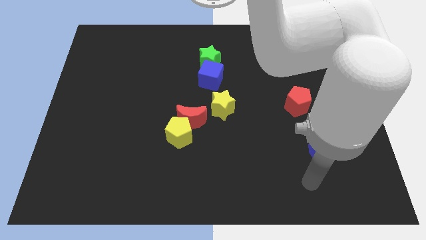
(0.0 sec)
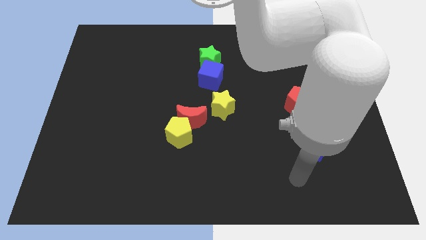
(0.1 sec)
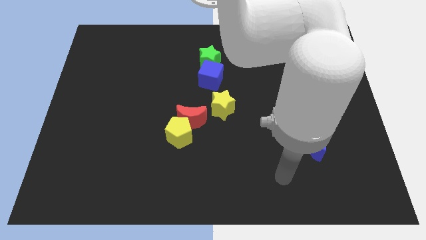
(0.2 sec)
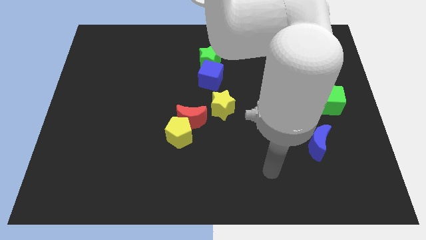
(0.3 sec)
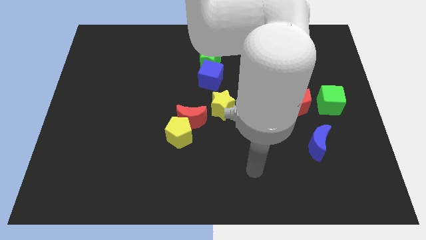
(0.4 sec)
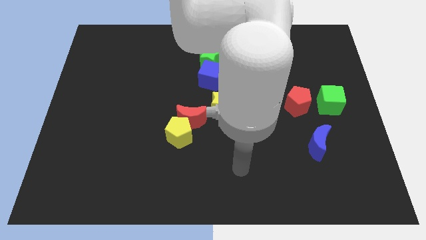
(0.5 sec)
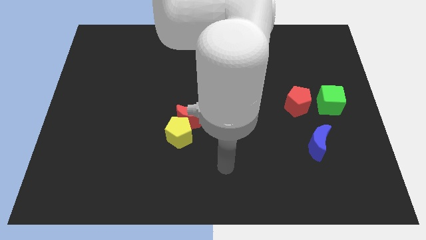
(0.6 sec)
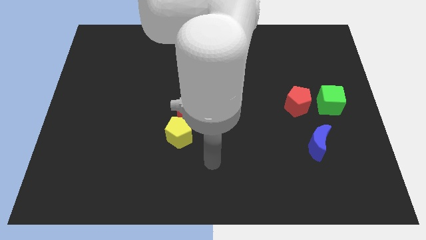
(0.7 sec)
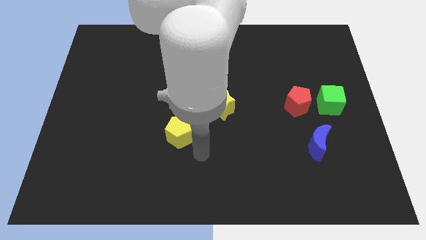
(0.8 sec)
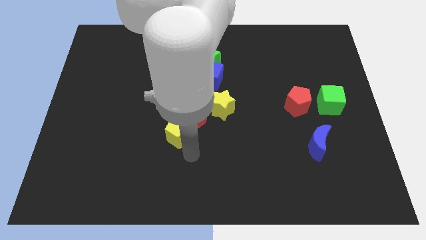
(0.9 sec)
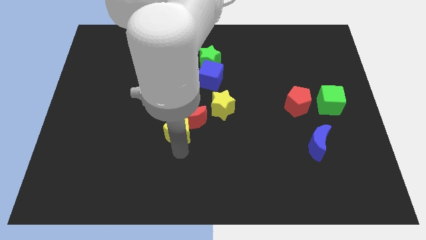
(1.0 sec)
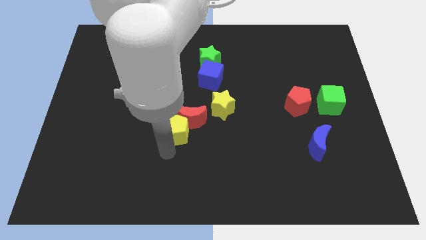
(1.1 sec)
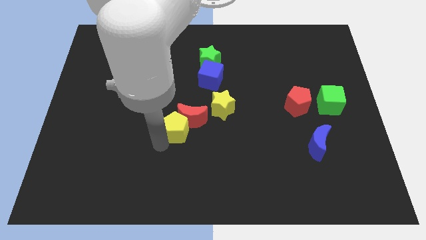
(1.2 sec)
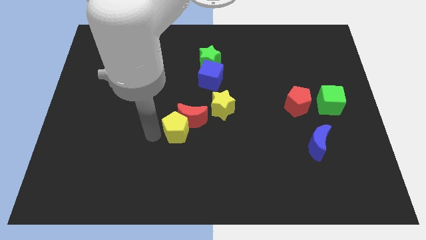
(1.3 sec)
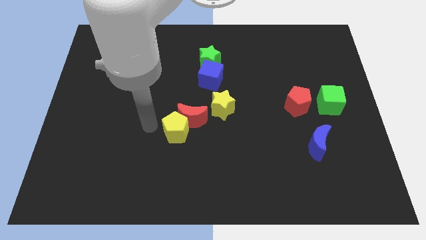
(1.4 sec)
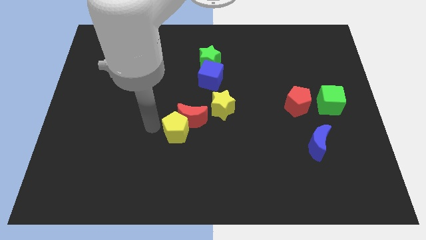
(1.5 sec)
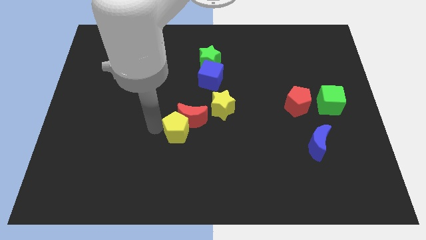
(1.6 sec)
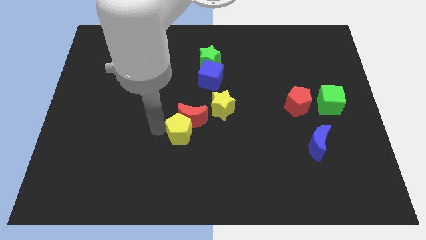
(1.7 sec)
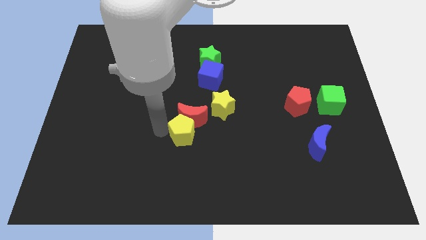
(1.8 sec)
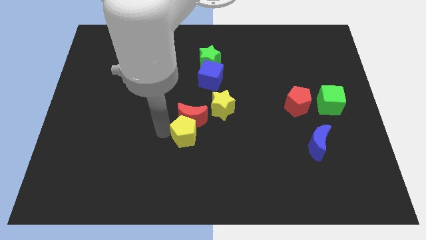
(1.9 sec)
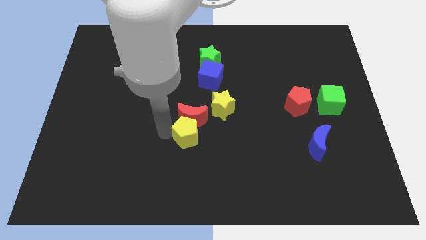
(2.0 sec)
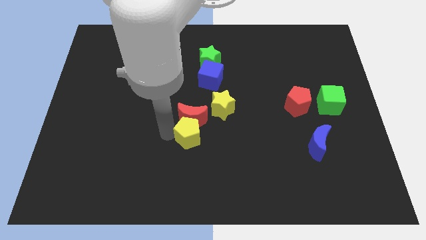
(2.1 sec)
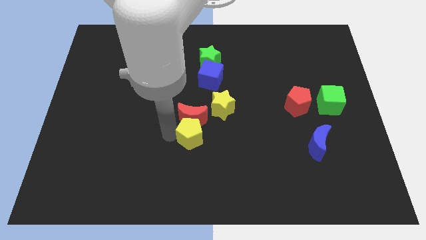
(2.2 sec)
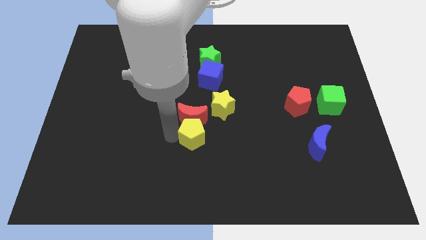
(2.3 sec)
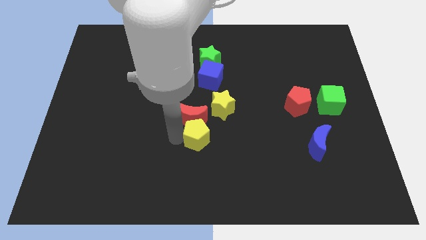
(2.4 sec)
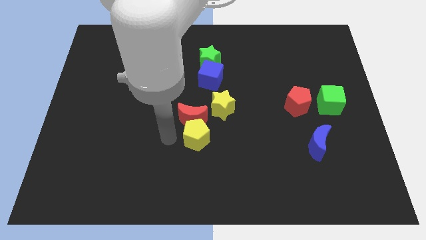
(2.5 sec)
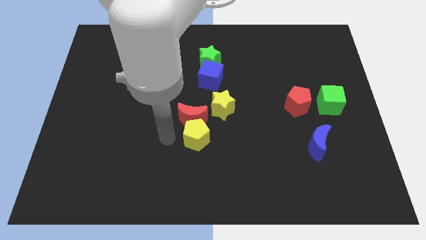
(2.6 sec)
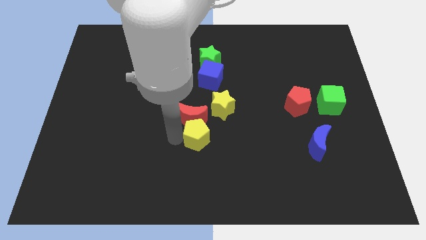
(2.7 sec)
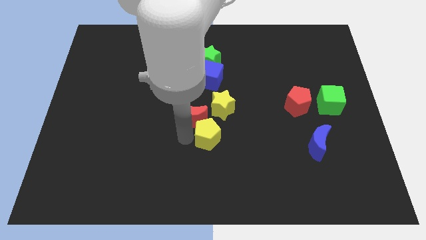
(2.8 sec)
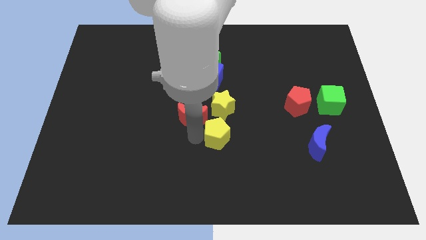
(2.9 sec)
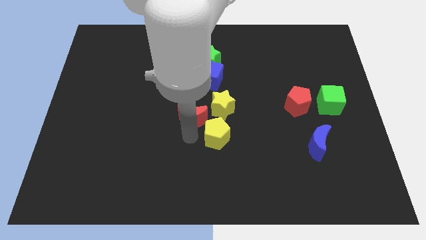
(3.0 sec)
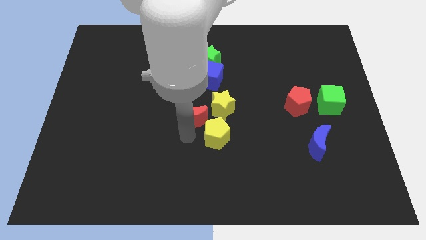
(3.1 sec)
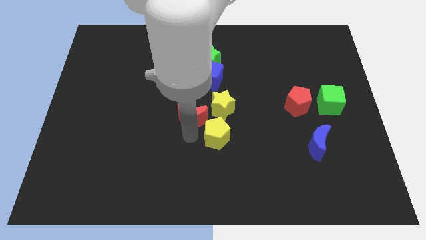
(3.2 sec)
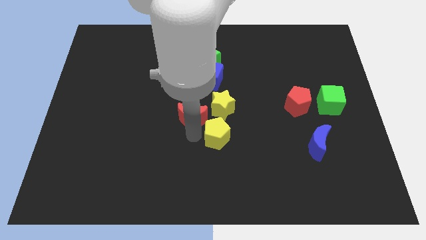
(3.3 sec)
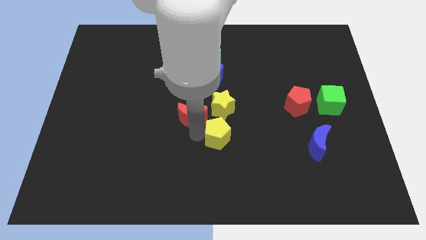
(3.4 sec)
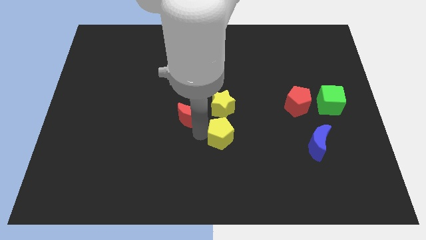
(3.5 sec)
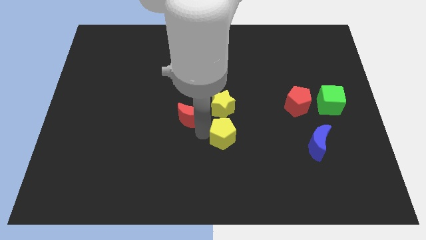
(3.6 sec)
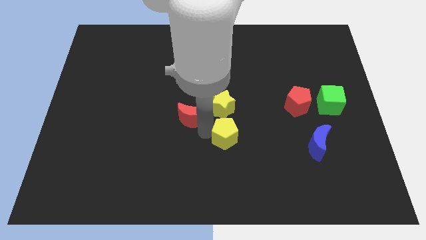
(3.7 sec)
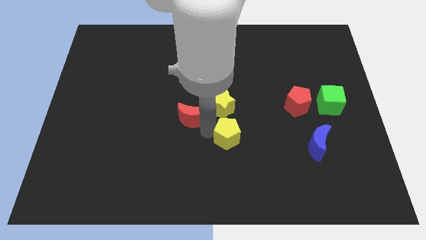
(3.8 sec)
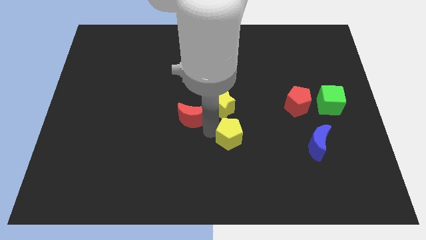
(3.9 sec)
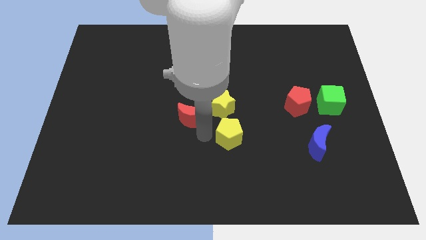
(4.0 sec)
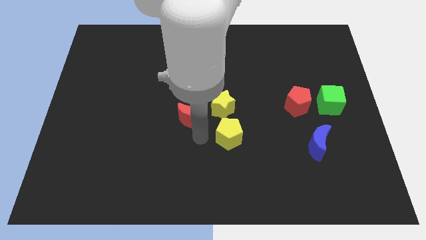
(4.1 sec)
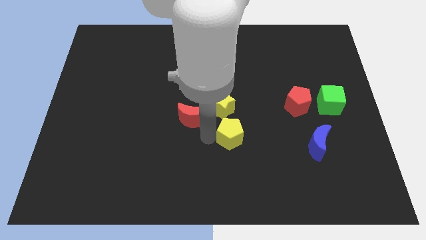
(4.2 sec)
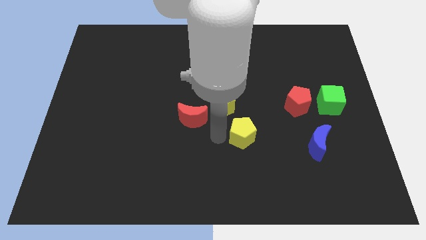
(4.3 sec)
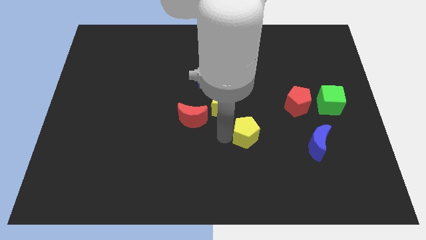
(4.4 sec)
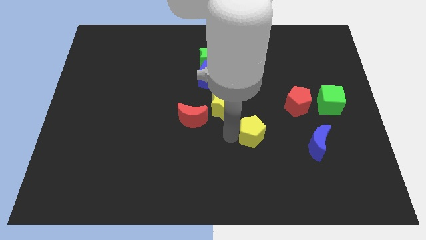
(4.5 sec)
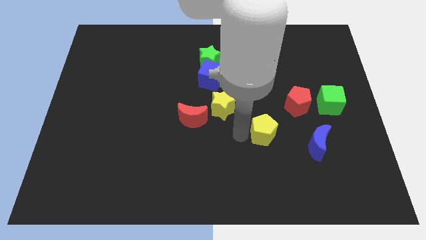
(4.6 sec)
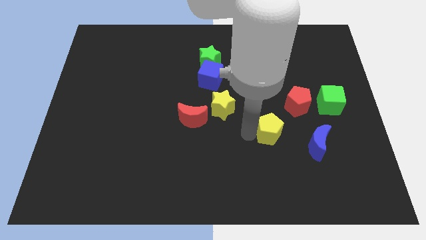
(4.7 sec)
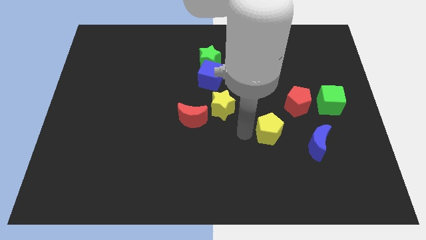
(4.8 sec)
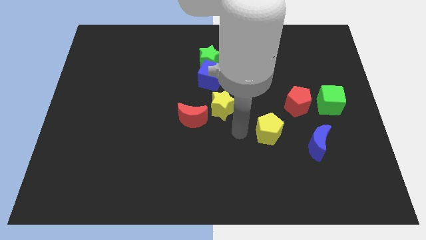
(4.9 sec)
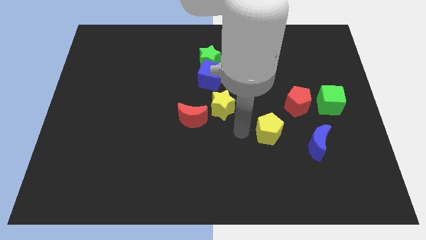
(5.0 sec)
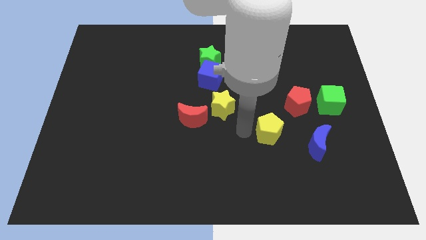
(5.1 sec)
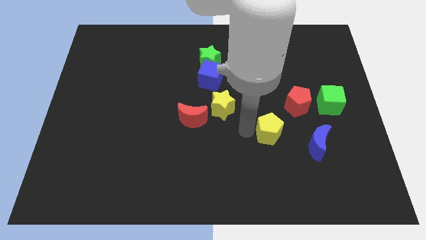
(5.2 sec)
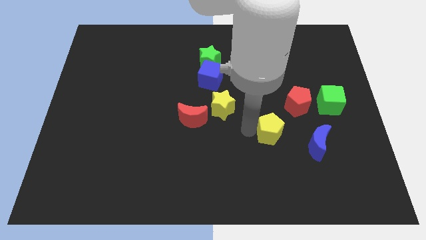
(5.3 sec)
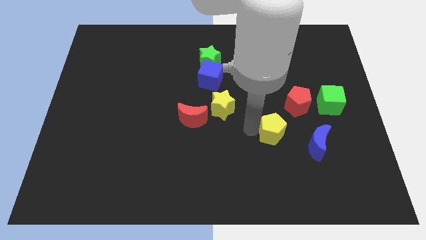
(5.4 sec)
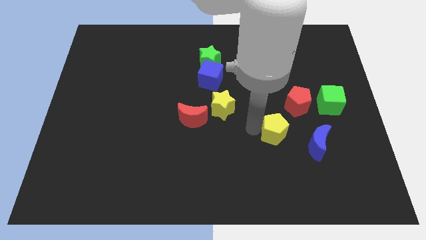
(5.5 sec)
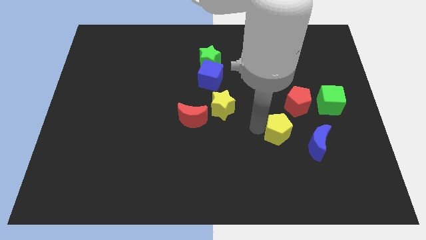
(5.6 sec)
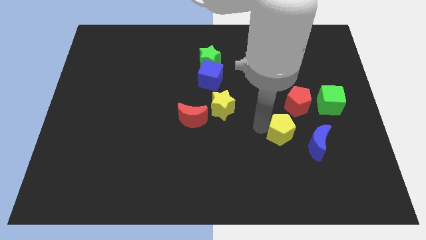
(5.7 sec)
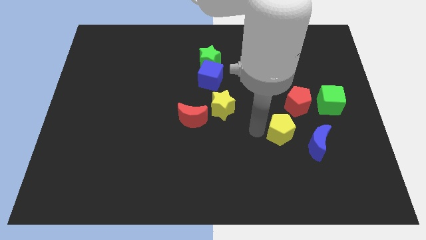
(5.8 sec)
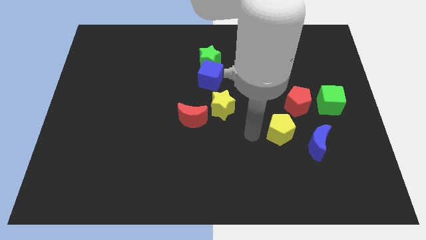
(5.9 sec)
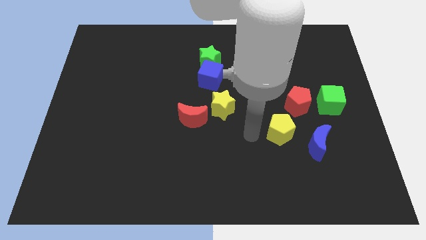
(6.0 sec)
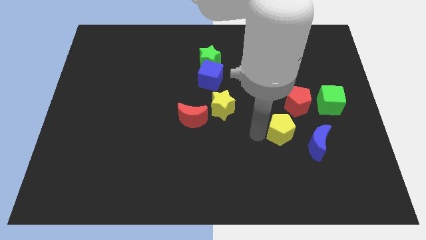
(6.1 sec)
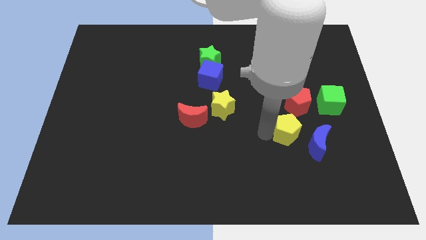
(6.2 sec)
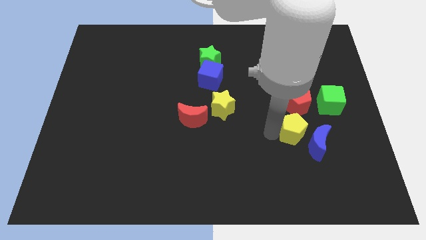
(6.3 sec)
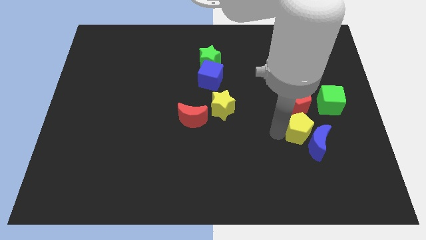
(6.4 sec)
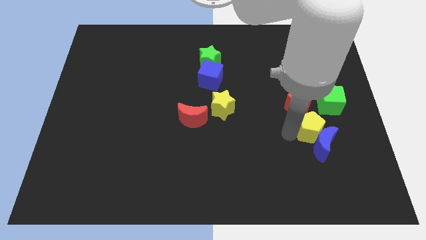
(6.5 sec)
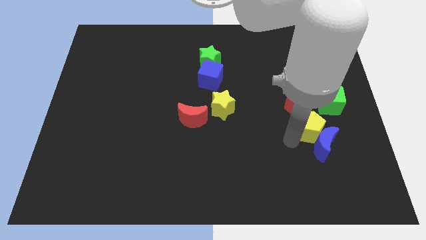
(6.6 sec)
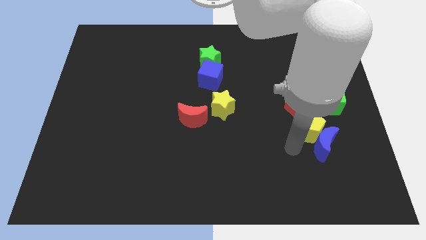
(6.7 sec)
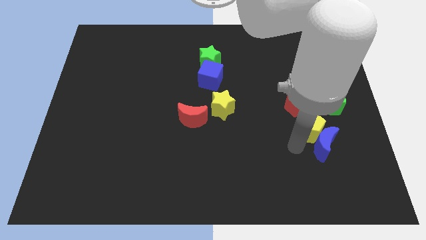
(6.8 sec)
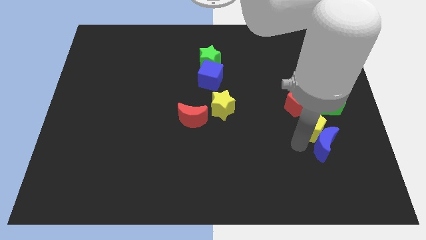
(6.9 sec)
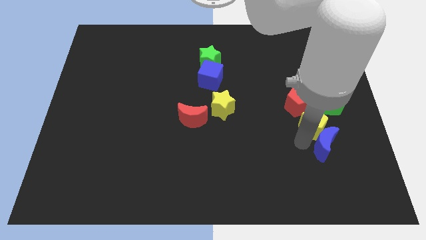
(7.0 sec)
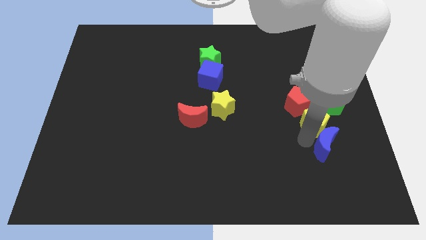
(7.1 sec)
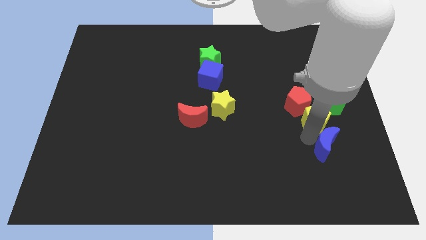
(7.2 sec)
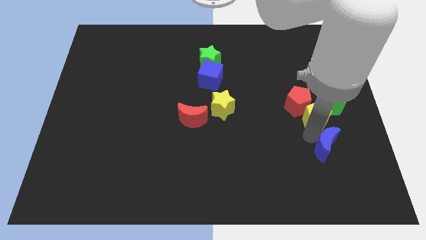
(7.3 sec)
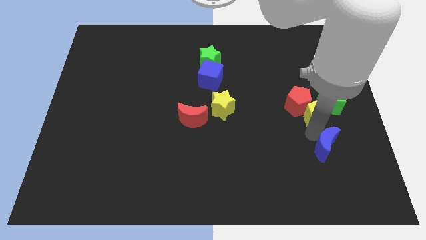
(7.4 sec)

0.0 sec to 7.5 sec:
push the yellow pentagon towards the green cube
